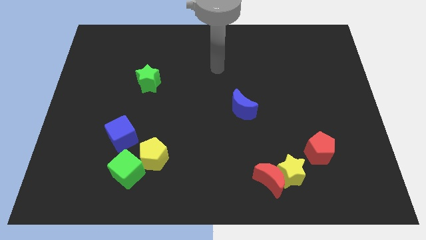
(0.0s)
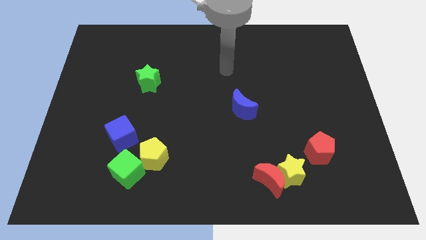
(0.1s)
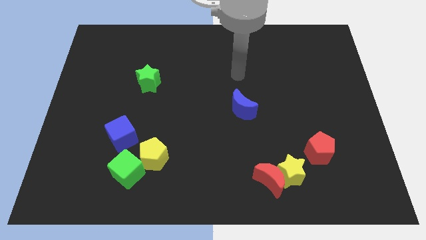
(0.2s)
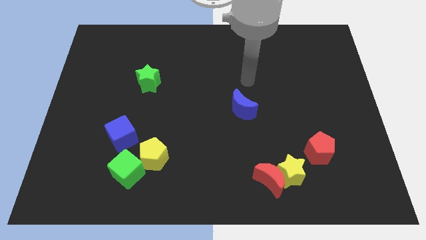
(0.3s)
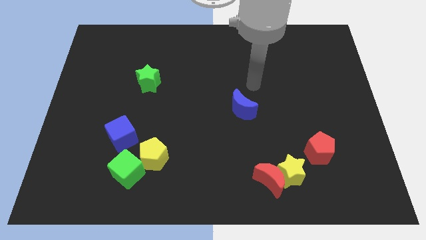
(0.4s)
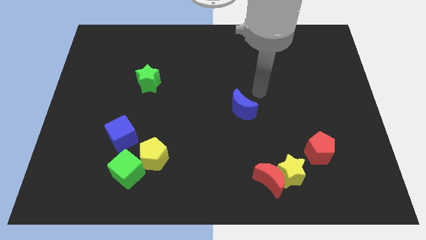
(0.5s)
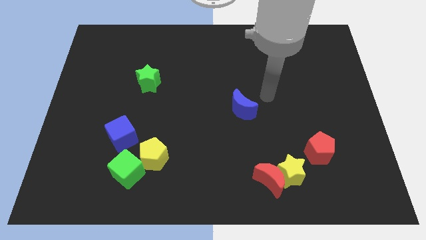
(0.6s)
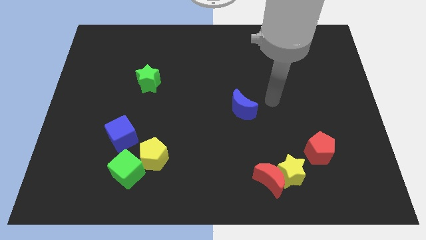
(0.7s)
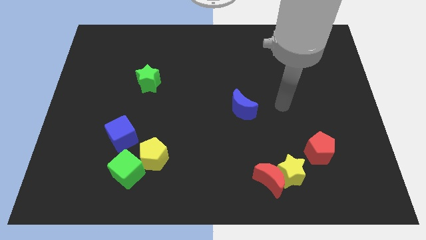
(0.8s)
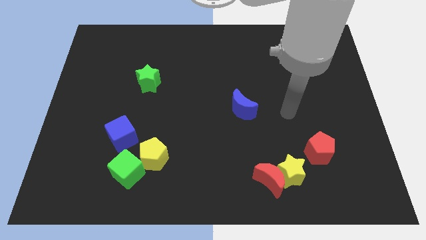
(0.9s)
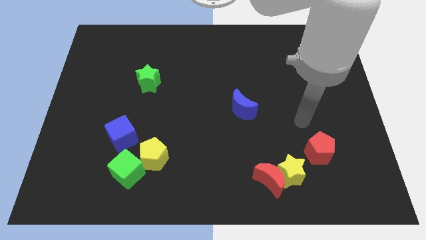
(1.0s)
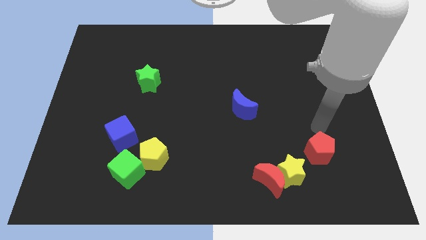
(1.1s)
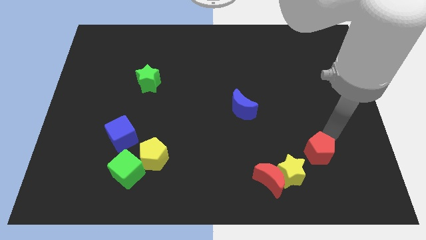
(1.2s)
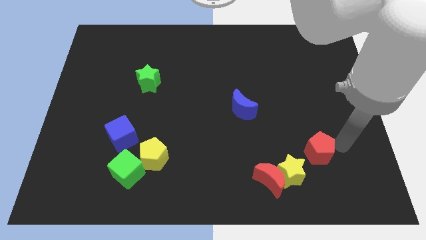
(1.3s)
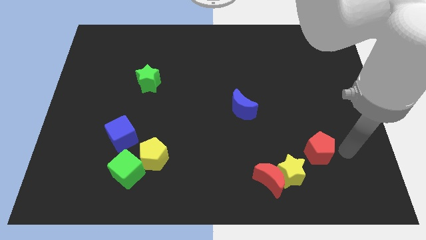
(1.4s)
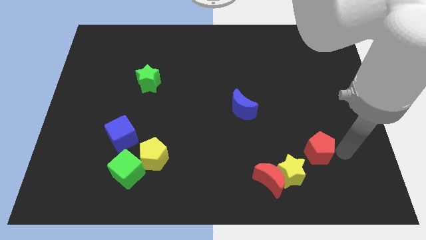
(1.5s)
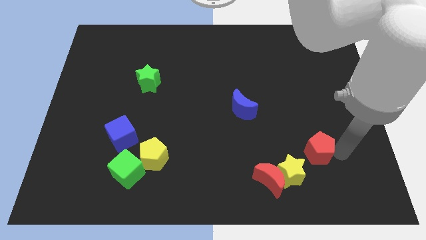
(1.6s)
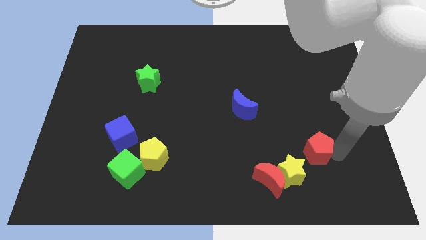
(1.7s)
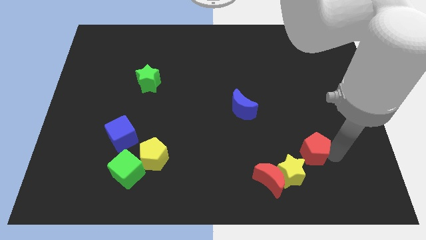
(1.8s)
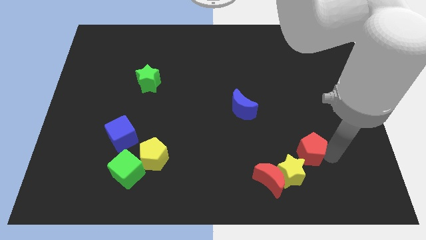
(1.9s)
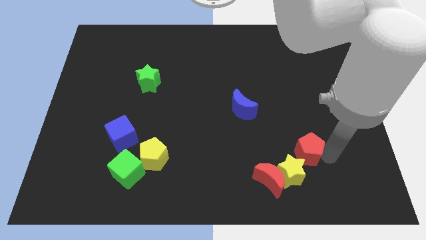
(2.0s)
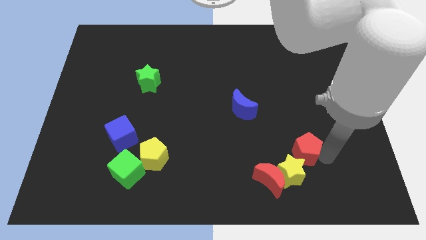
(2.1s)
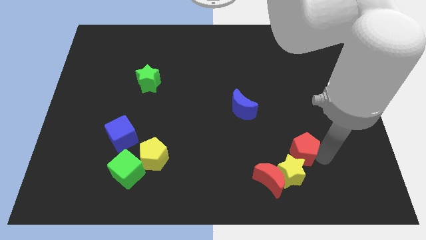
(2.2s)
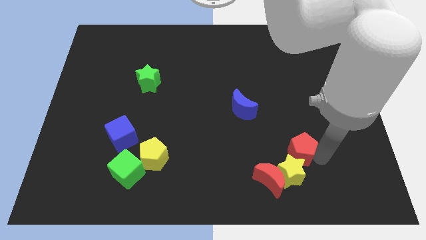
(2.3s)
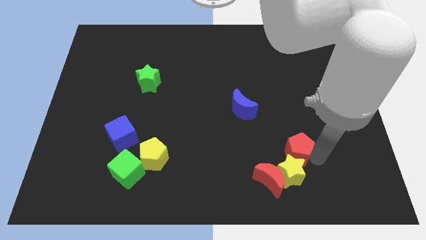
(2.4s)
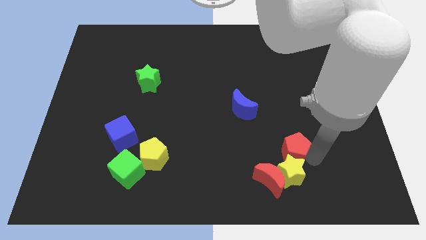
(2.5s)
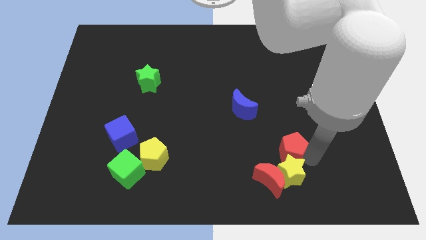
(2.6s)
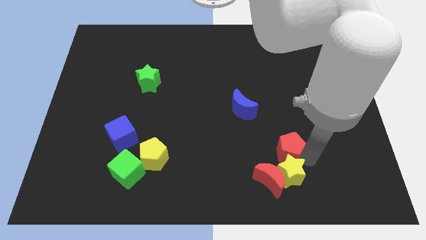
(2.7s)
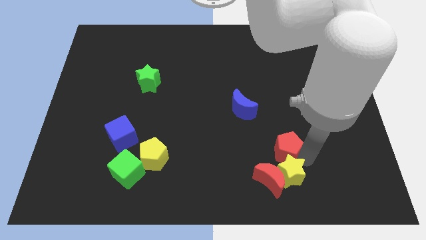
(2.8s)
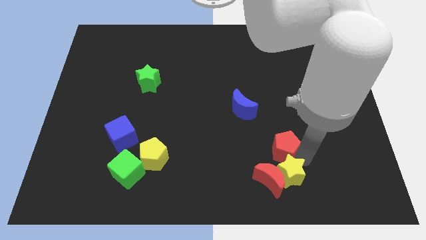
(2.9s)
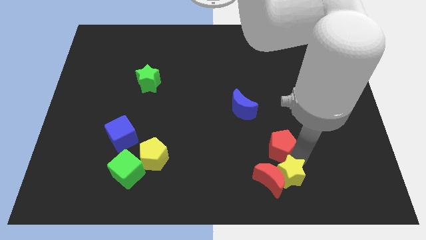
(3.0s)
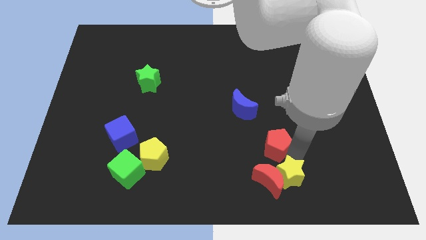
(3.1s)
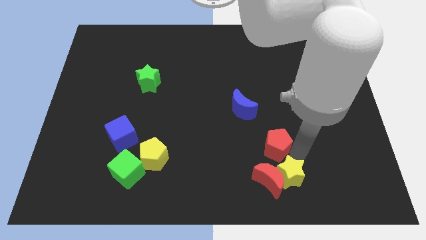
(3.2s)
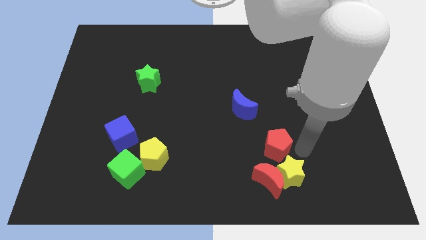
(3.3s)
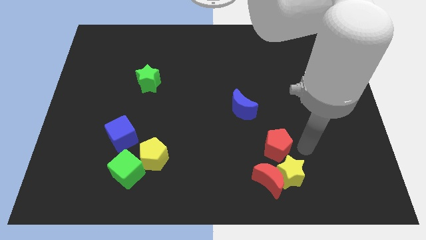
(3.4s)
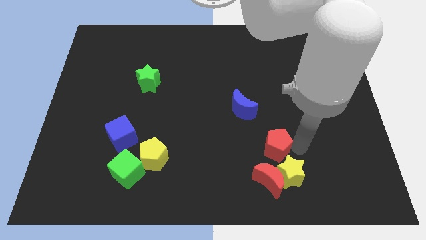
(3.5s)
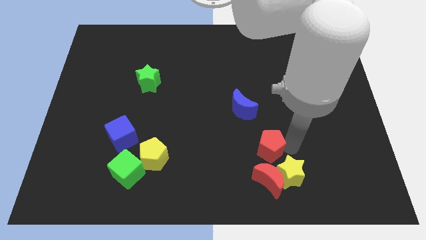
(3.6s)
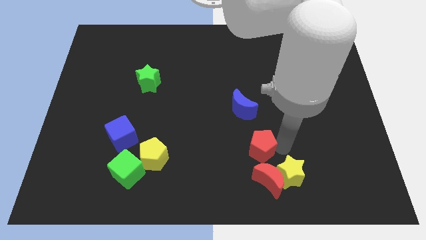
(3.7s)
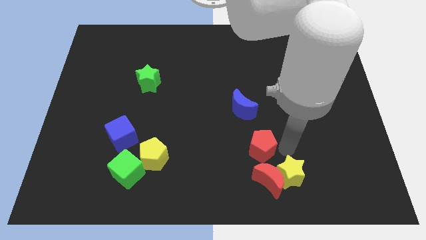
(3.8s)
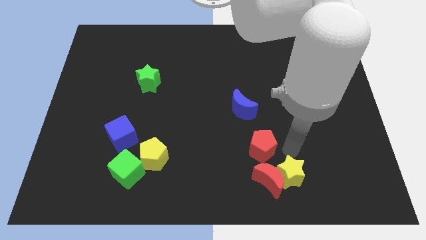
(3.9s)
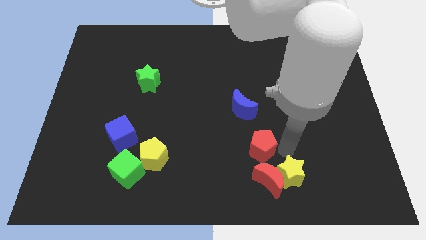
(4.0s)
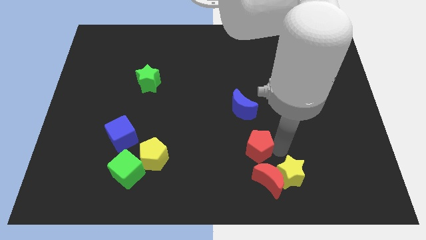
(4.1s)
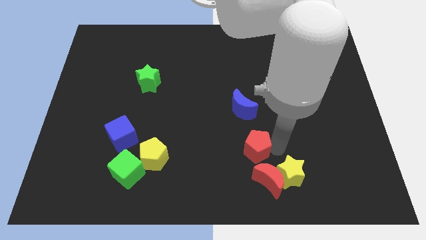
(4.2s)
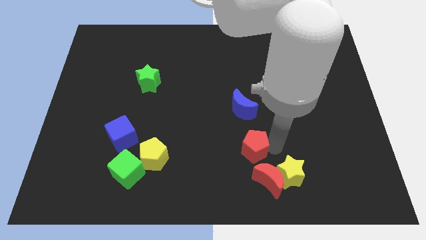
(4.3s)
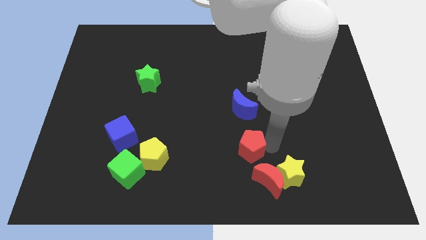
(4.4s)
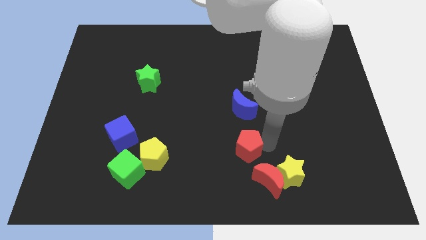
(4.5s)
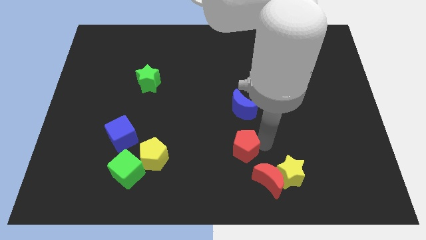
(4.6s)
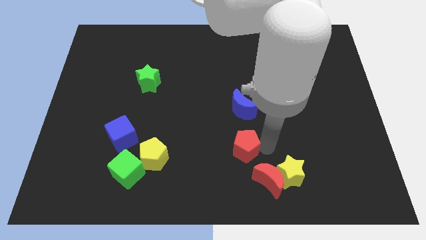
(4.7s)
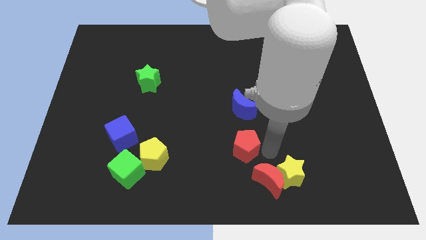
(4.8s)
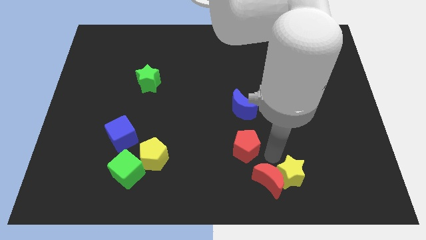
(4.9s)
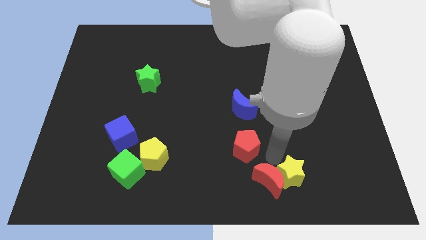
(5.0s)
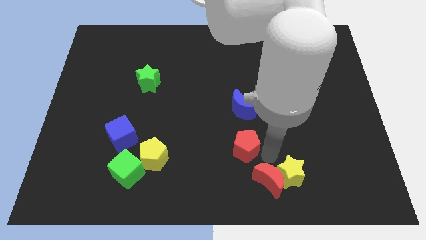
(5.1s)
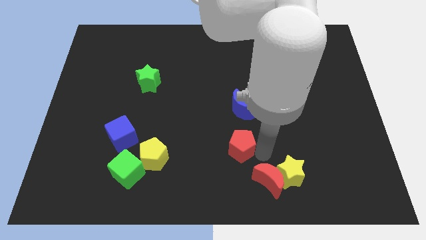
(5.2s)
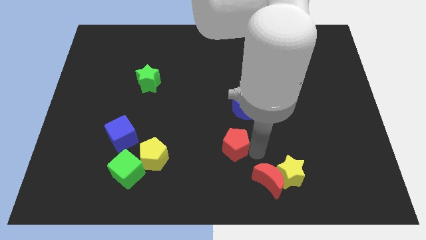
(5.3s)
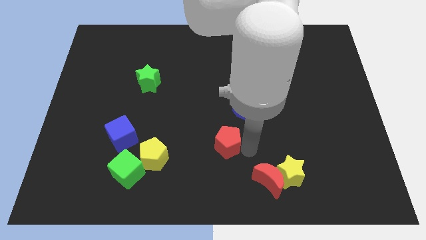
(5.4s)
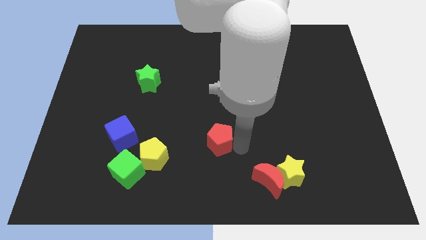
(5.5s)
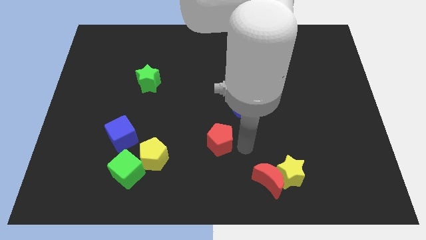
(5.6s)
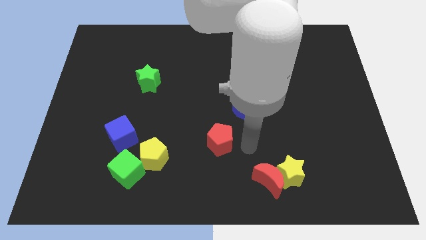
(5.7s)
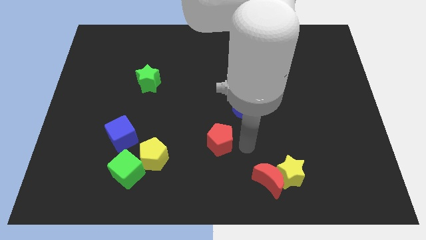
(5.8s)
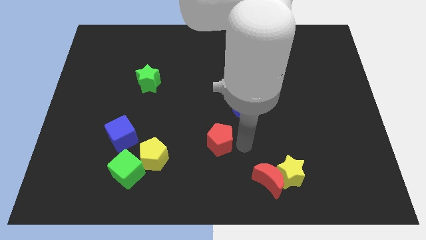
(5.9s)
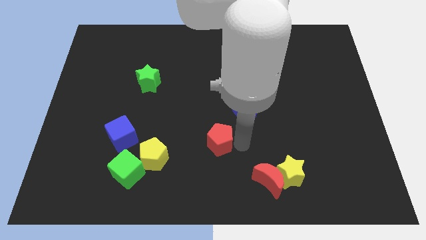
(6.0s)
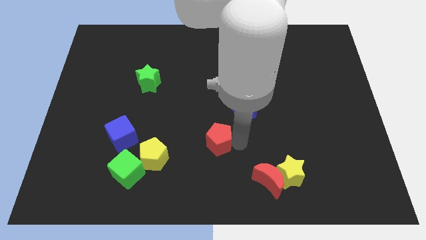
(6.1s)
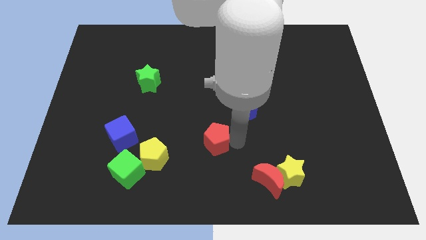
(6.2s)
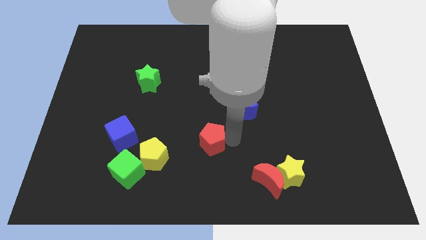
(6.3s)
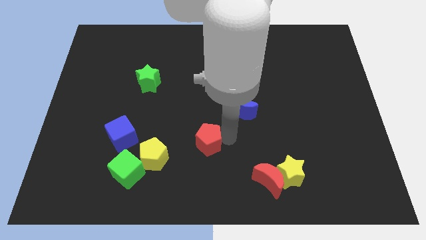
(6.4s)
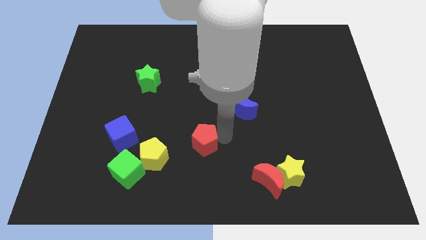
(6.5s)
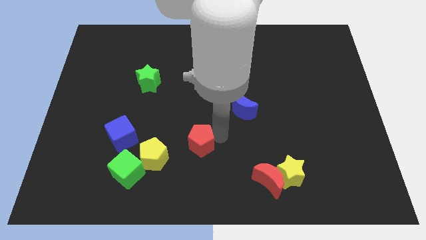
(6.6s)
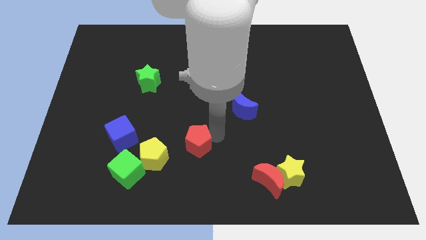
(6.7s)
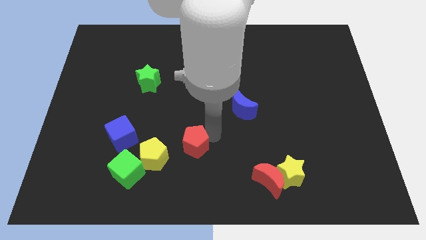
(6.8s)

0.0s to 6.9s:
slide the red pentagon to the right of the blue cube

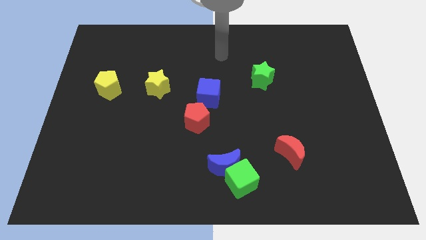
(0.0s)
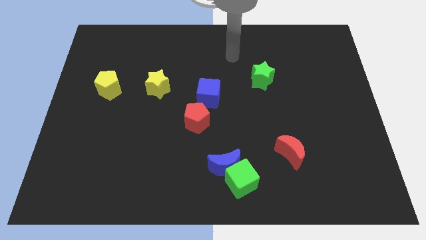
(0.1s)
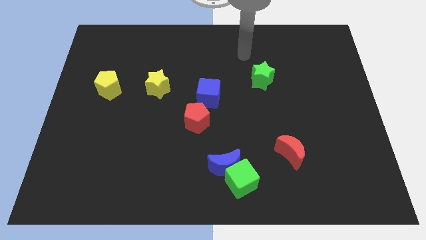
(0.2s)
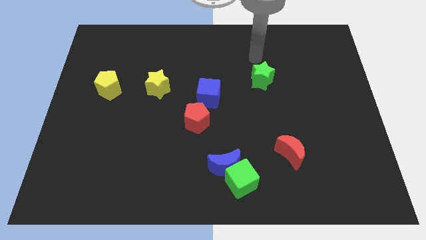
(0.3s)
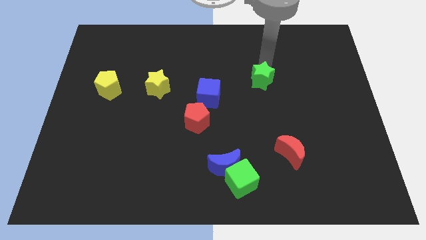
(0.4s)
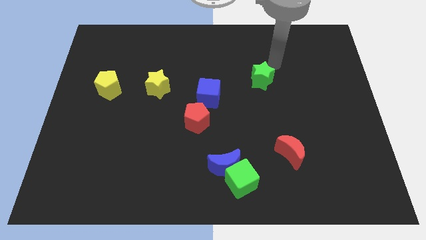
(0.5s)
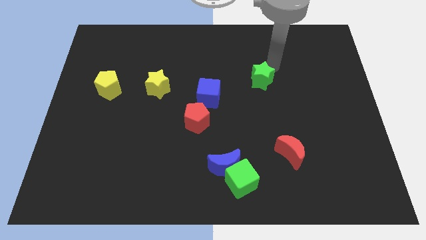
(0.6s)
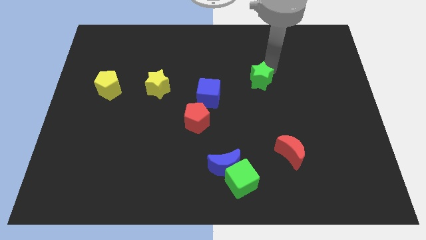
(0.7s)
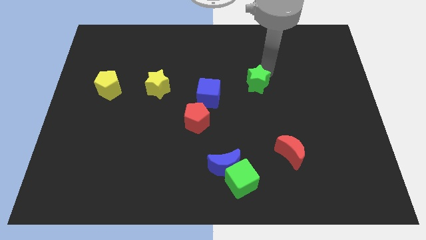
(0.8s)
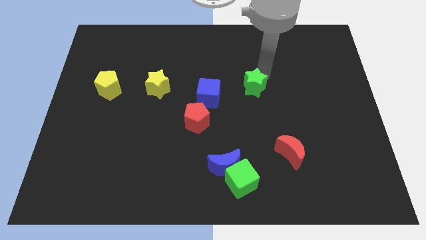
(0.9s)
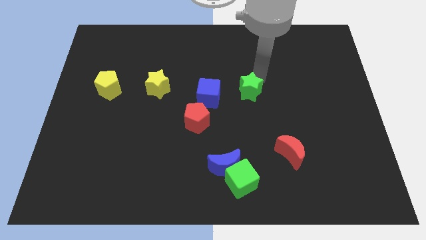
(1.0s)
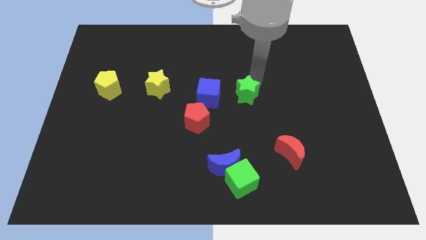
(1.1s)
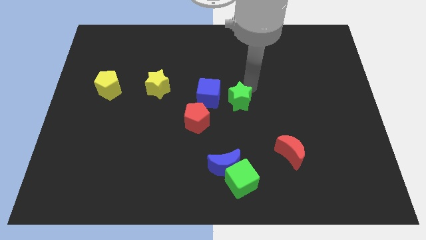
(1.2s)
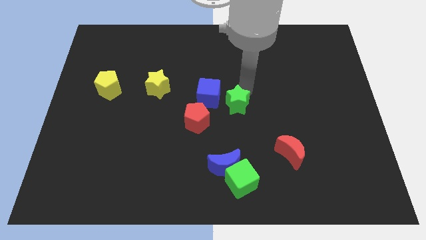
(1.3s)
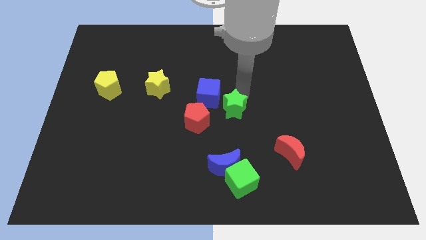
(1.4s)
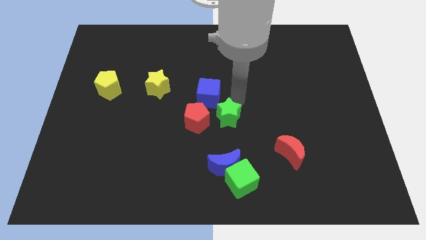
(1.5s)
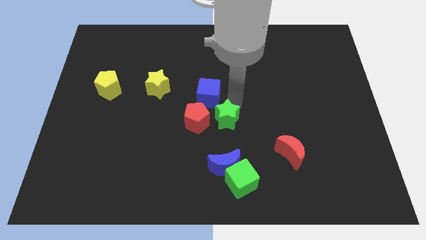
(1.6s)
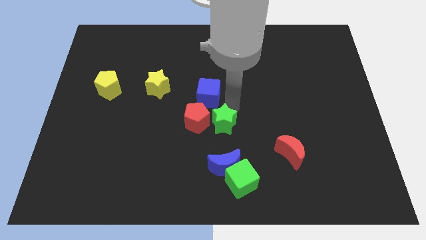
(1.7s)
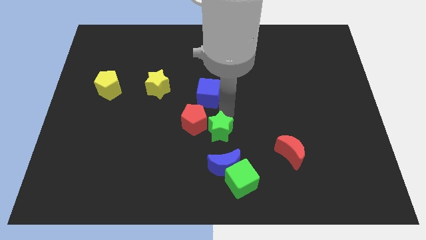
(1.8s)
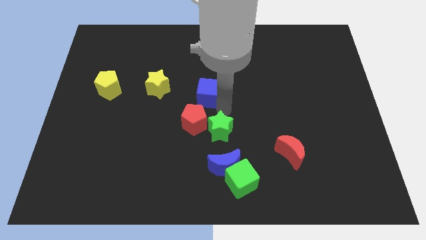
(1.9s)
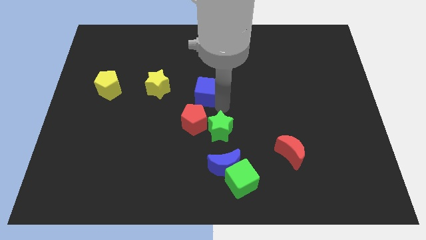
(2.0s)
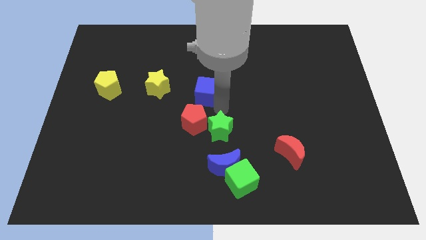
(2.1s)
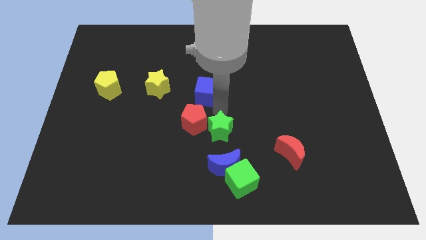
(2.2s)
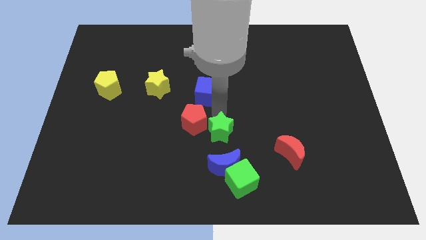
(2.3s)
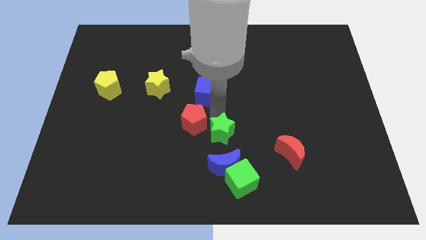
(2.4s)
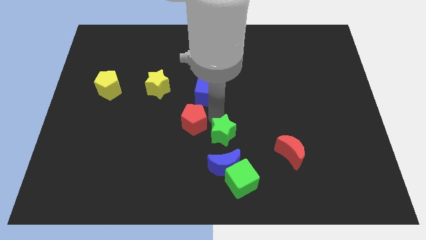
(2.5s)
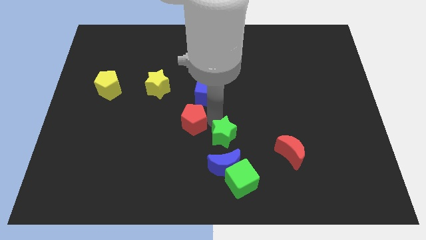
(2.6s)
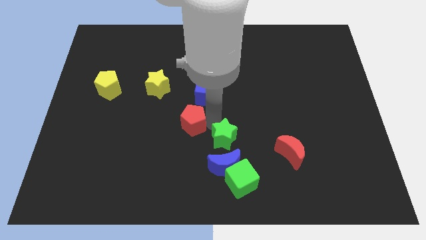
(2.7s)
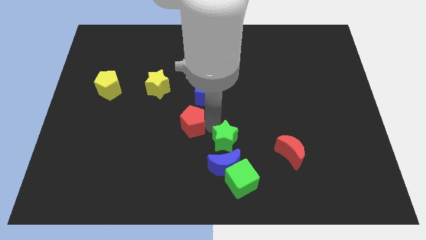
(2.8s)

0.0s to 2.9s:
slide the green star to the top left side of the green cube
